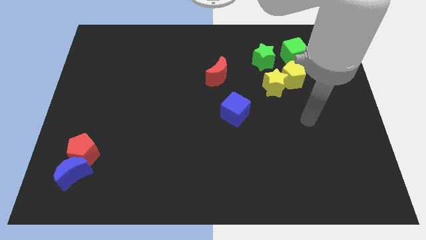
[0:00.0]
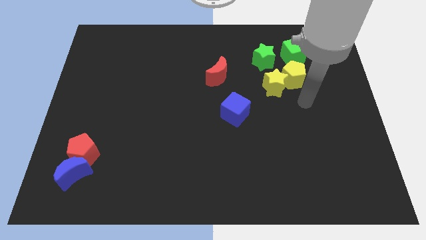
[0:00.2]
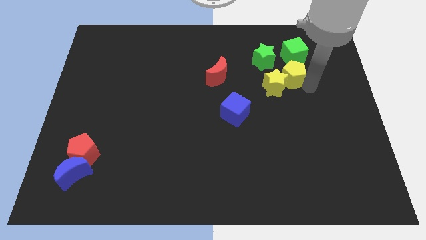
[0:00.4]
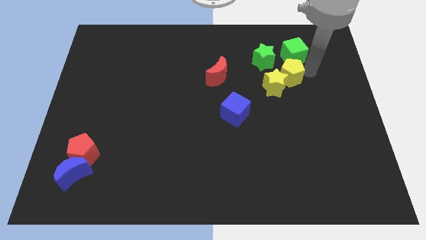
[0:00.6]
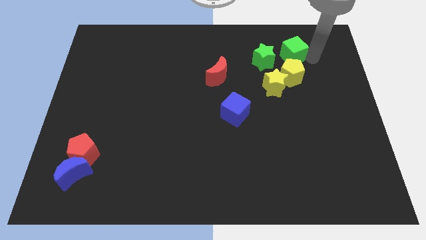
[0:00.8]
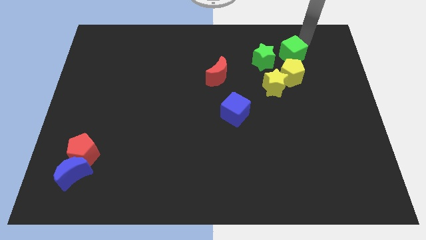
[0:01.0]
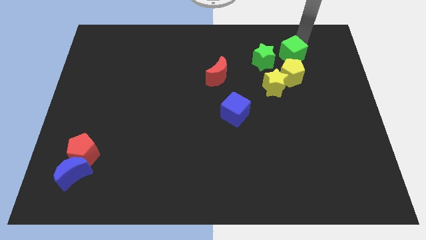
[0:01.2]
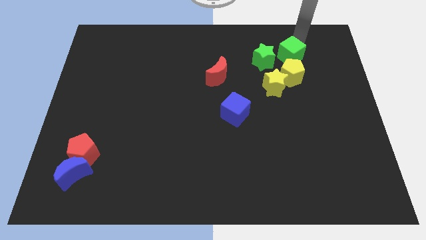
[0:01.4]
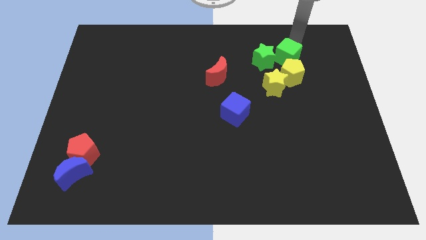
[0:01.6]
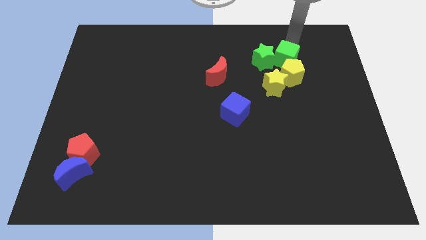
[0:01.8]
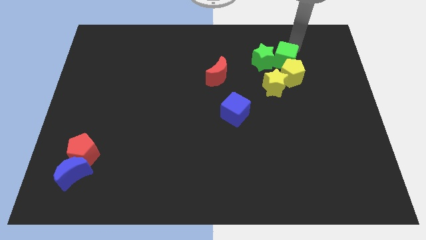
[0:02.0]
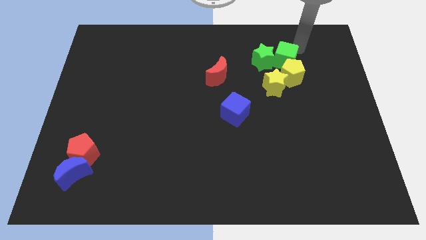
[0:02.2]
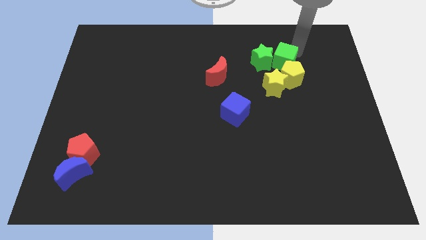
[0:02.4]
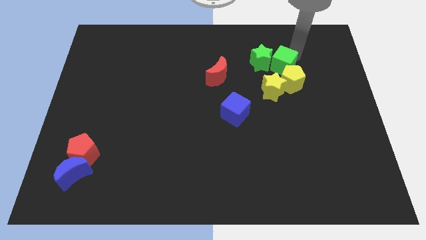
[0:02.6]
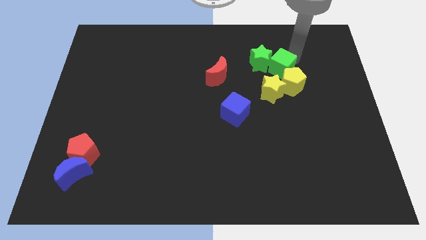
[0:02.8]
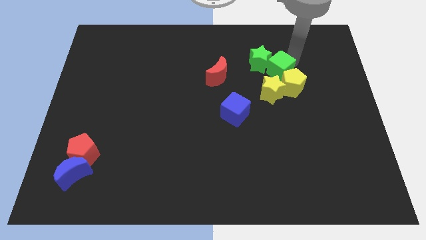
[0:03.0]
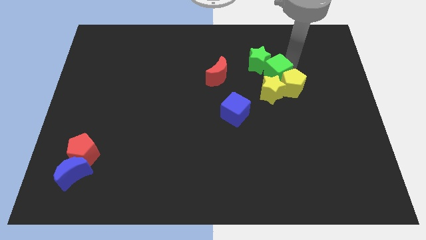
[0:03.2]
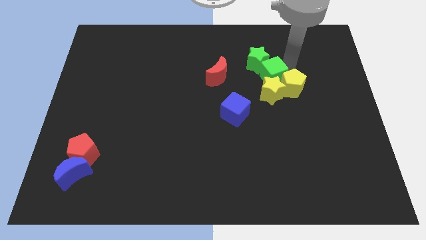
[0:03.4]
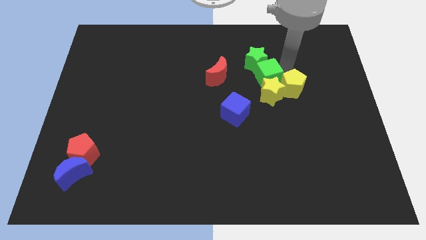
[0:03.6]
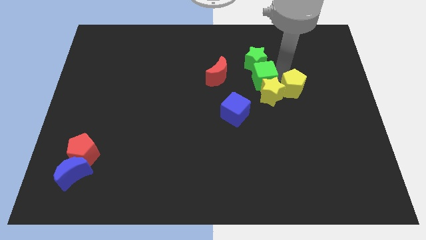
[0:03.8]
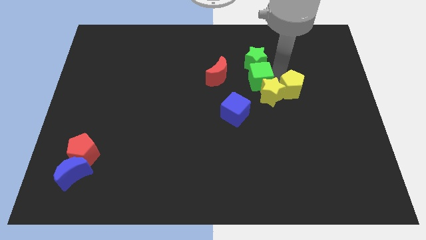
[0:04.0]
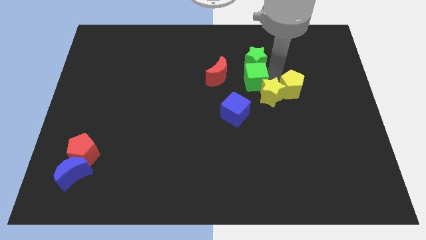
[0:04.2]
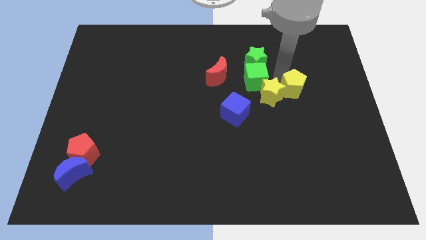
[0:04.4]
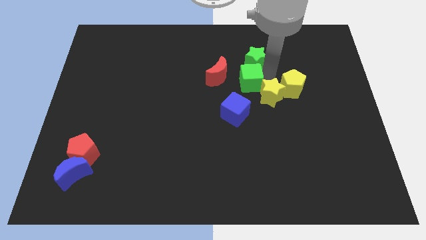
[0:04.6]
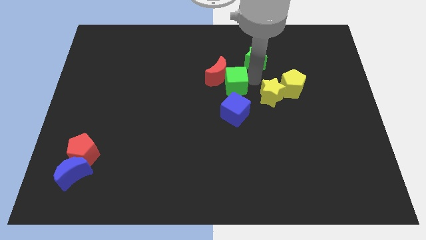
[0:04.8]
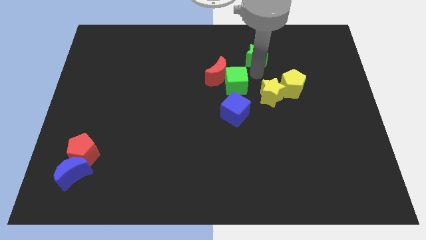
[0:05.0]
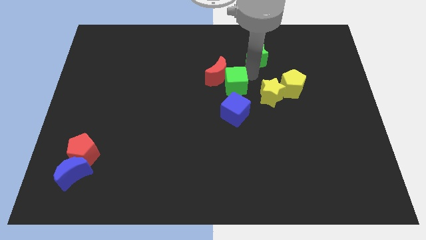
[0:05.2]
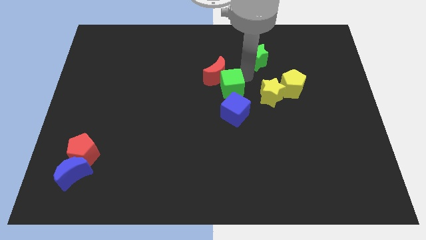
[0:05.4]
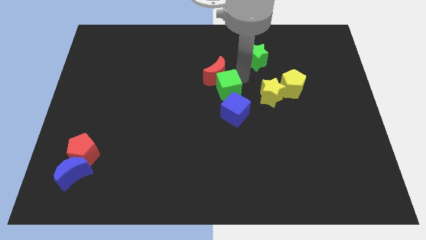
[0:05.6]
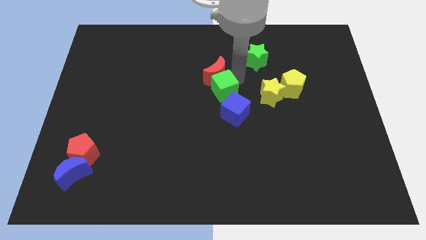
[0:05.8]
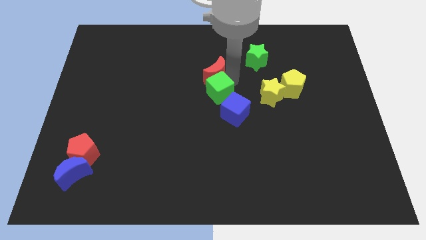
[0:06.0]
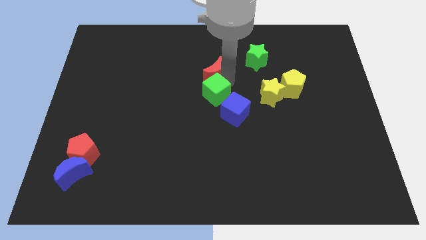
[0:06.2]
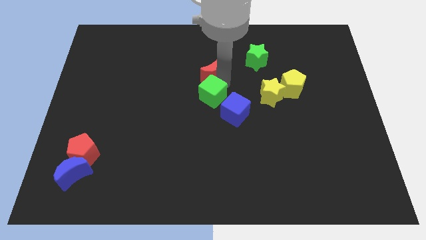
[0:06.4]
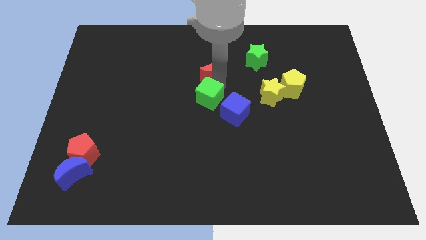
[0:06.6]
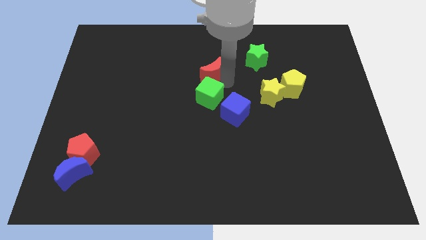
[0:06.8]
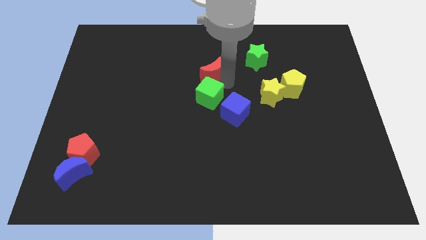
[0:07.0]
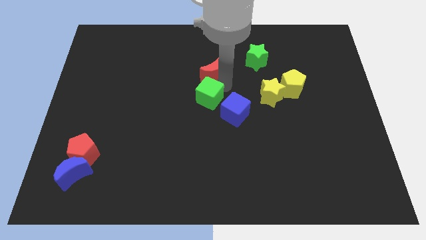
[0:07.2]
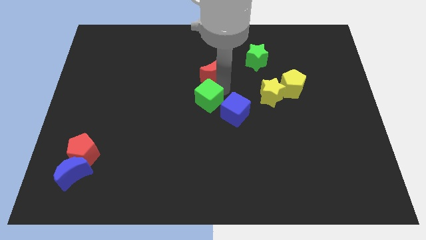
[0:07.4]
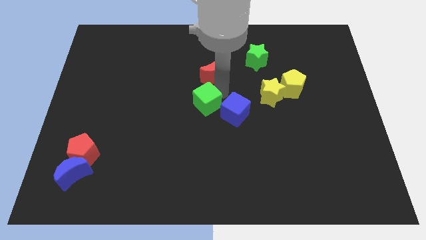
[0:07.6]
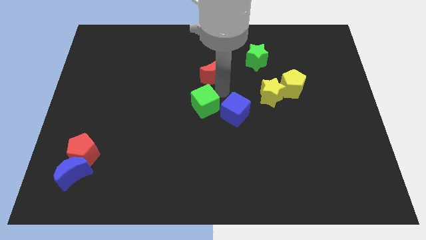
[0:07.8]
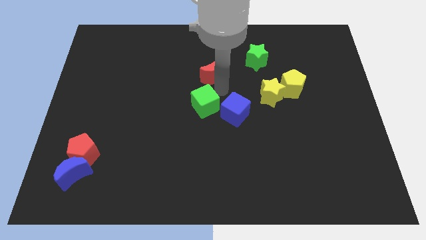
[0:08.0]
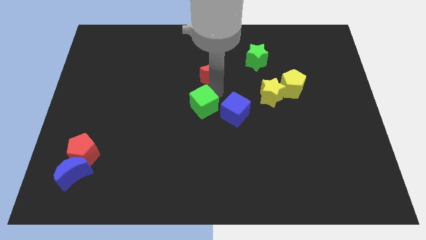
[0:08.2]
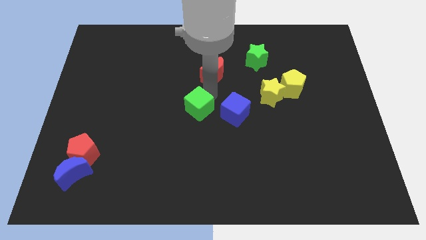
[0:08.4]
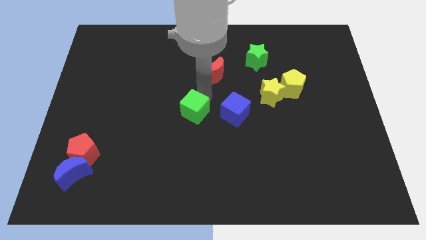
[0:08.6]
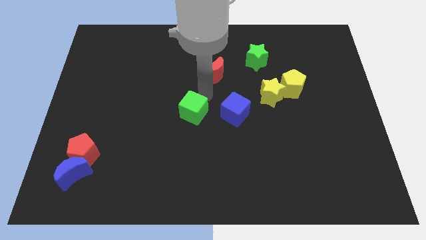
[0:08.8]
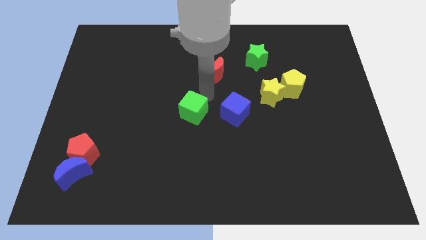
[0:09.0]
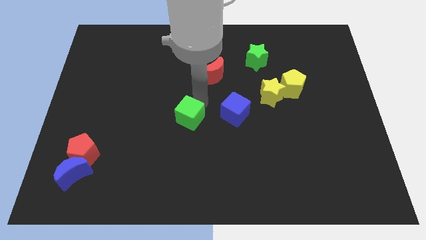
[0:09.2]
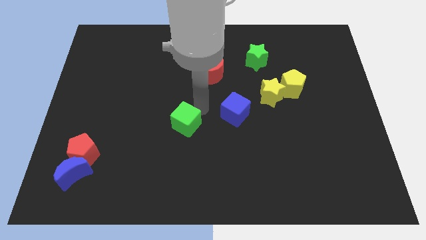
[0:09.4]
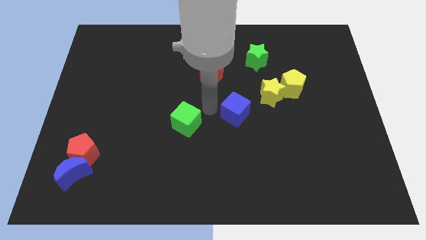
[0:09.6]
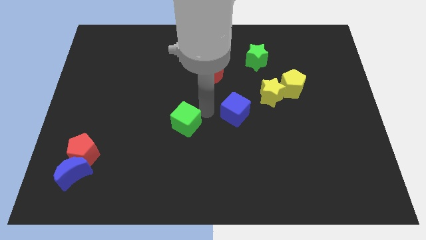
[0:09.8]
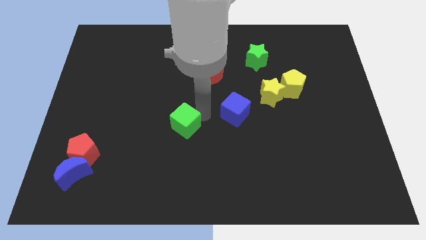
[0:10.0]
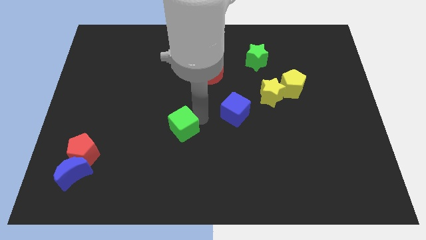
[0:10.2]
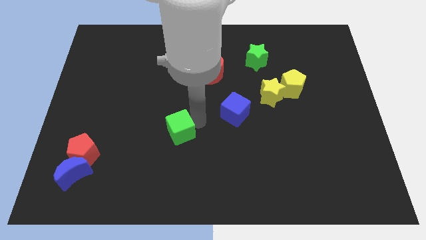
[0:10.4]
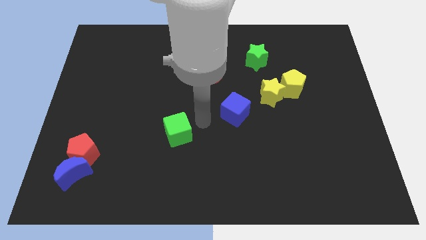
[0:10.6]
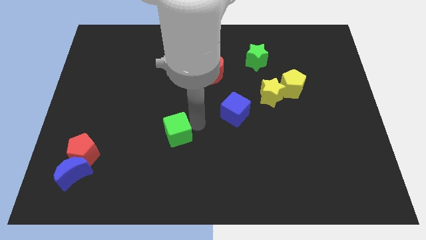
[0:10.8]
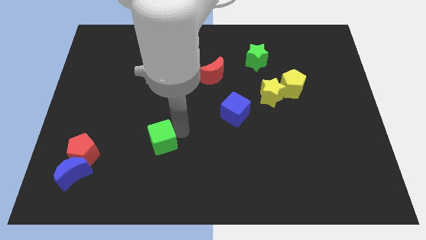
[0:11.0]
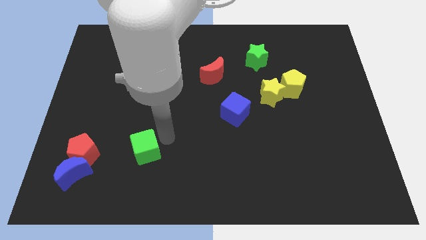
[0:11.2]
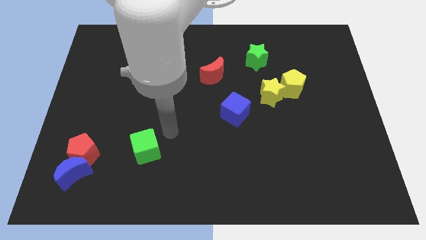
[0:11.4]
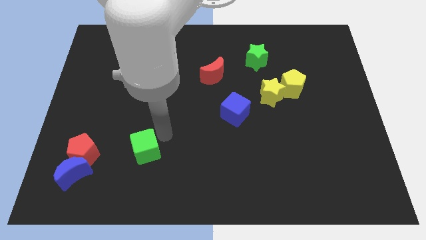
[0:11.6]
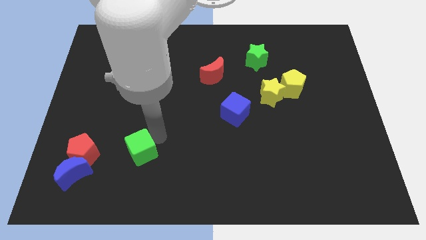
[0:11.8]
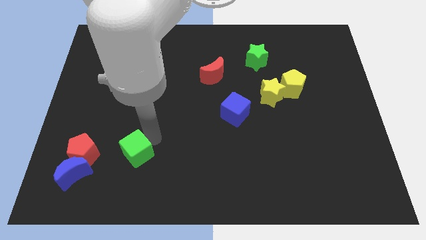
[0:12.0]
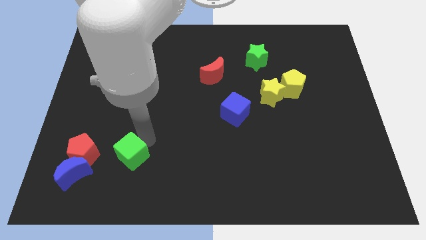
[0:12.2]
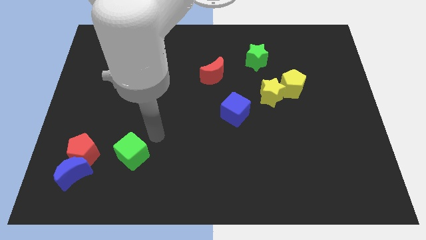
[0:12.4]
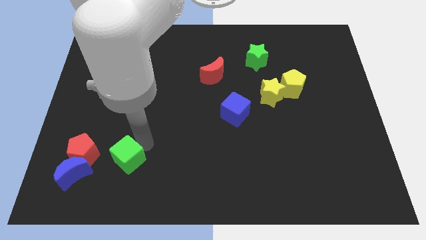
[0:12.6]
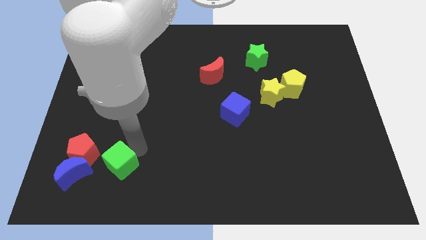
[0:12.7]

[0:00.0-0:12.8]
put the green cube to the bottom right side of the red pentagon
